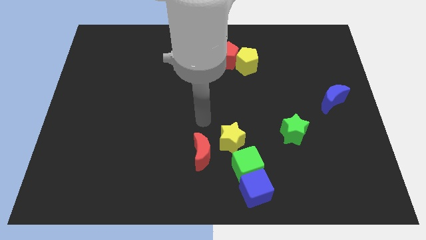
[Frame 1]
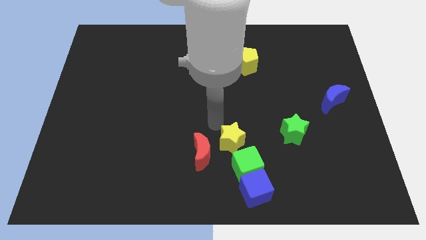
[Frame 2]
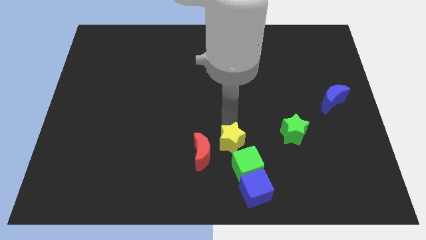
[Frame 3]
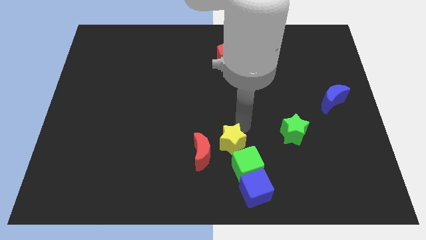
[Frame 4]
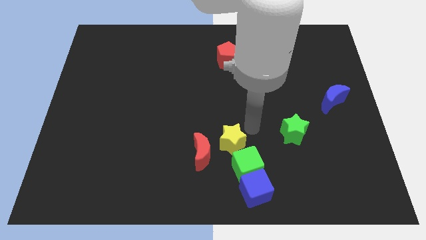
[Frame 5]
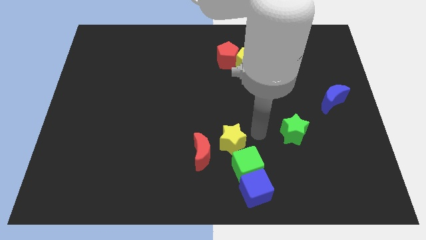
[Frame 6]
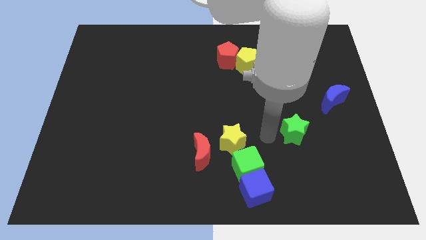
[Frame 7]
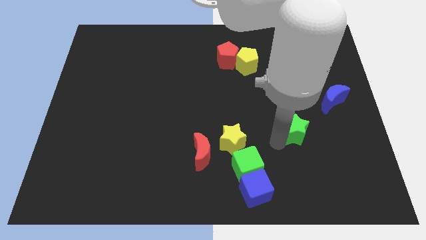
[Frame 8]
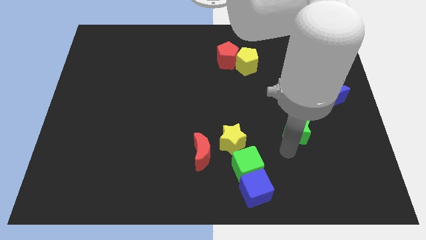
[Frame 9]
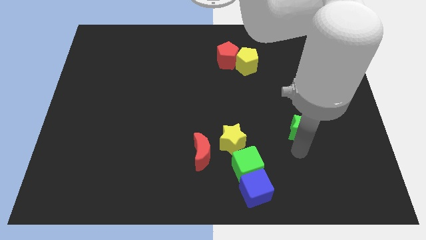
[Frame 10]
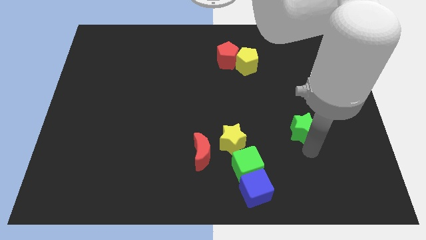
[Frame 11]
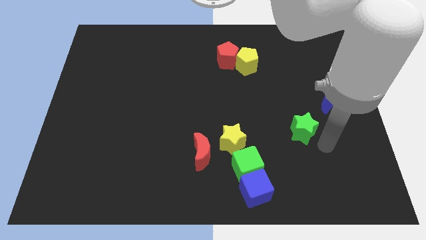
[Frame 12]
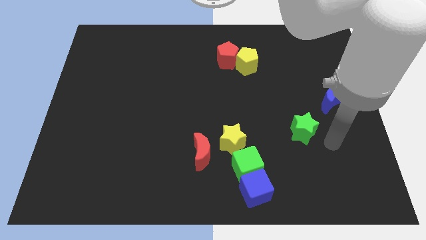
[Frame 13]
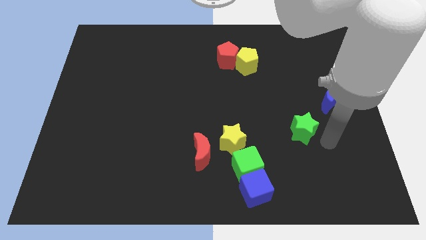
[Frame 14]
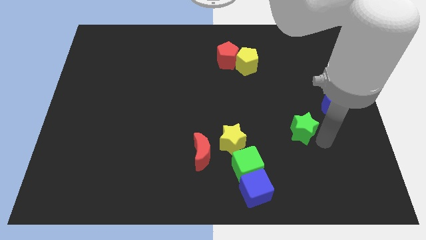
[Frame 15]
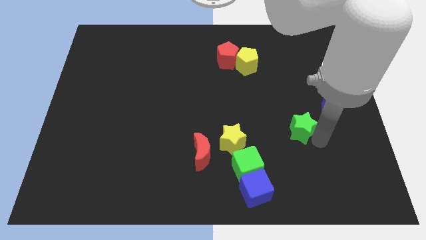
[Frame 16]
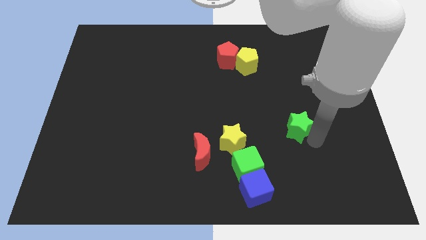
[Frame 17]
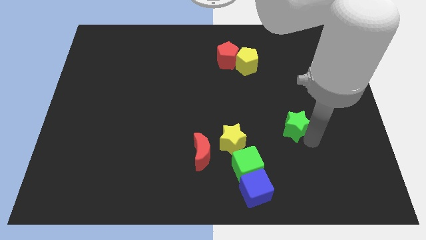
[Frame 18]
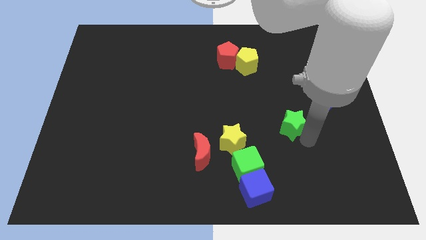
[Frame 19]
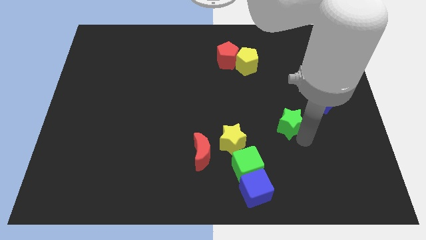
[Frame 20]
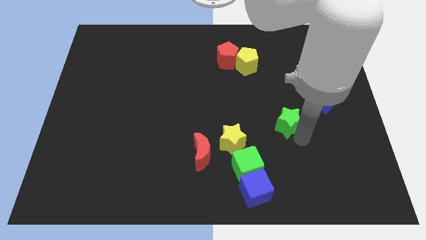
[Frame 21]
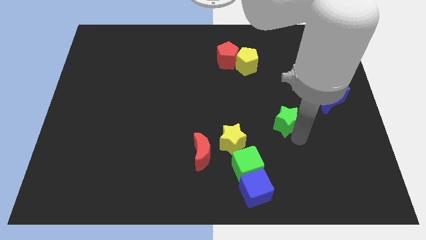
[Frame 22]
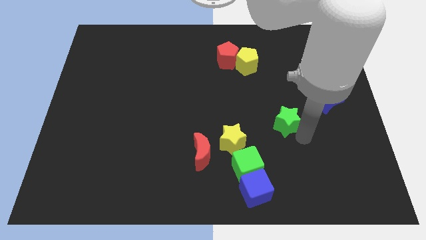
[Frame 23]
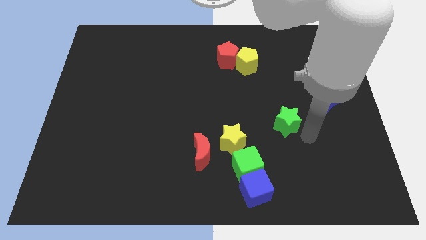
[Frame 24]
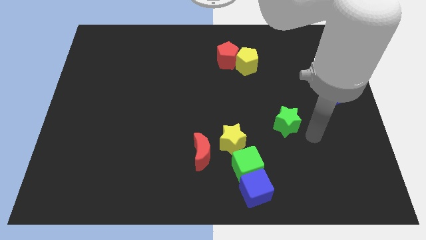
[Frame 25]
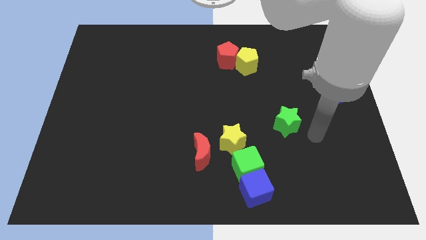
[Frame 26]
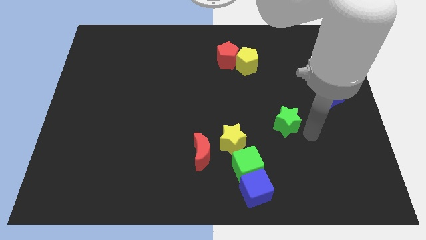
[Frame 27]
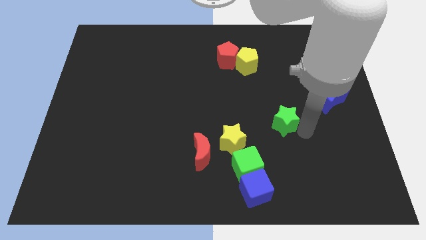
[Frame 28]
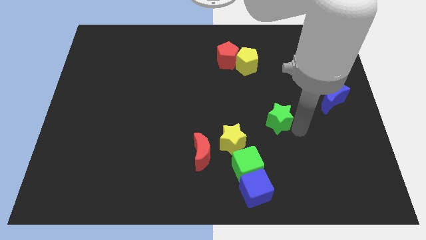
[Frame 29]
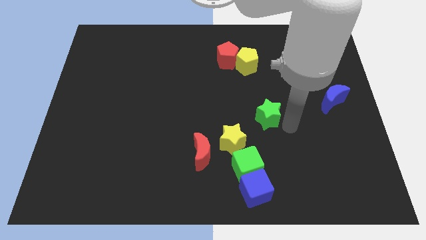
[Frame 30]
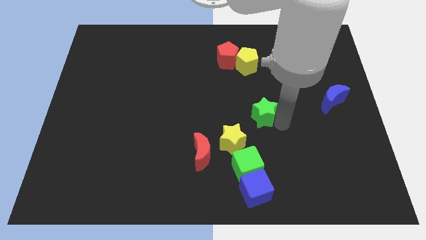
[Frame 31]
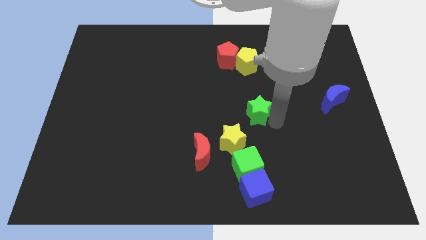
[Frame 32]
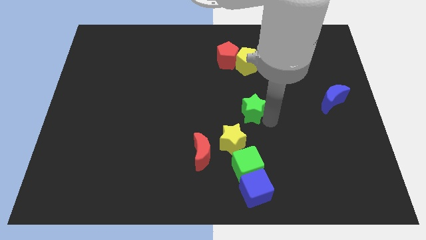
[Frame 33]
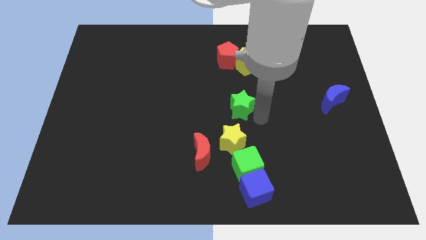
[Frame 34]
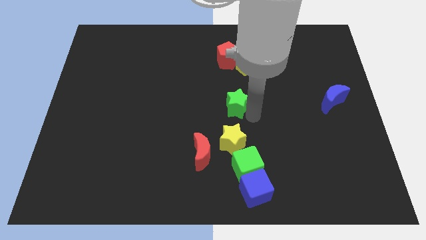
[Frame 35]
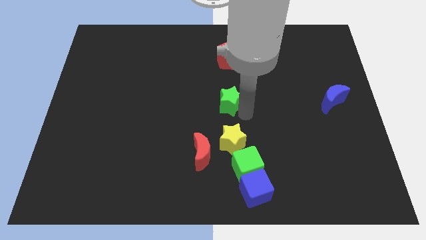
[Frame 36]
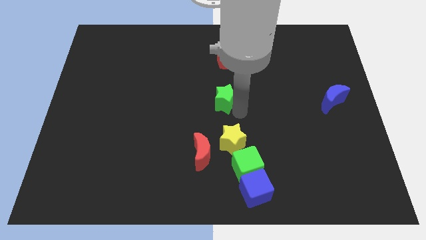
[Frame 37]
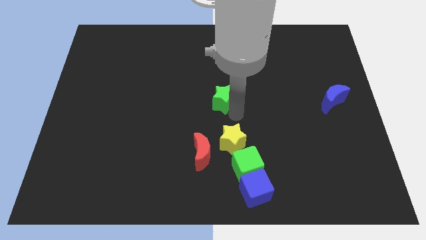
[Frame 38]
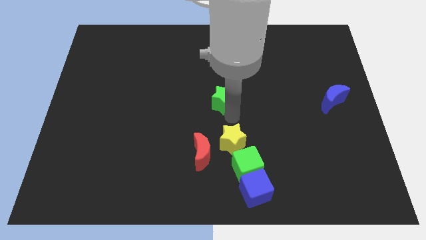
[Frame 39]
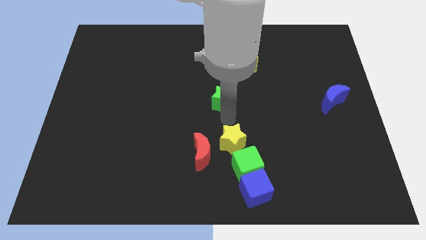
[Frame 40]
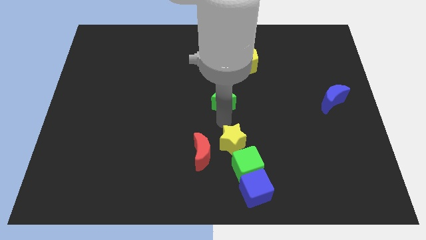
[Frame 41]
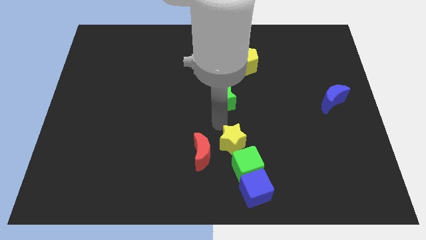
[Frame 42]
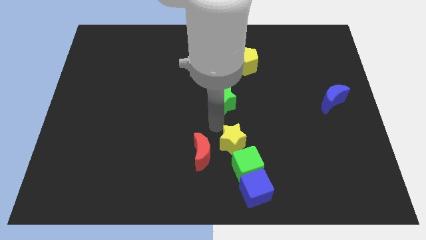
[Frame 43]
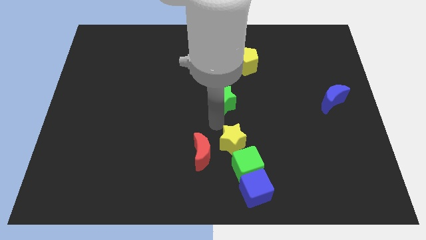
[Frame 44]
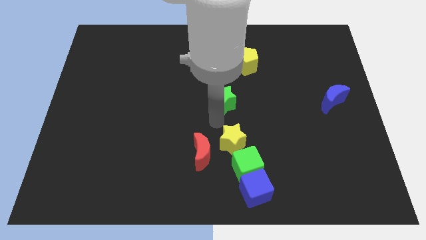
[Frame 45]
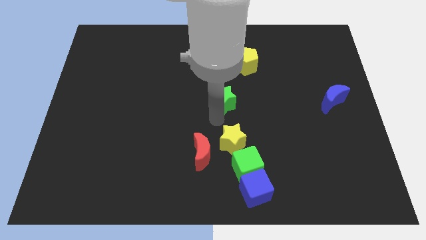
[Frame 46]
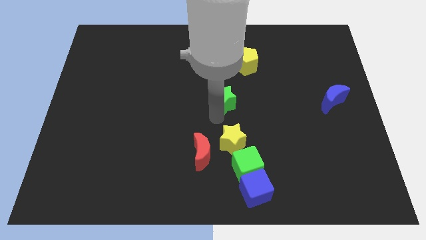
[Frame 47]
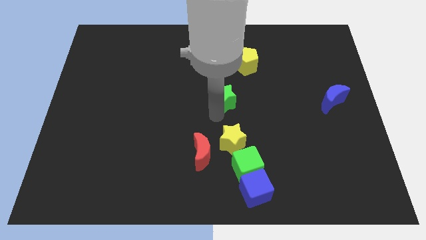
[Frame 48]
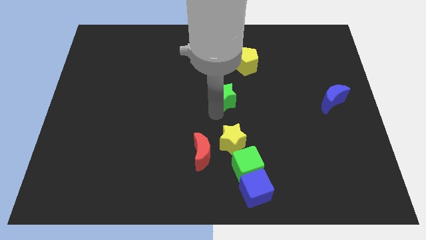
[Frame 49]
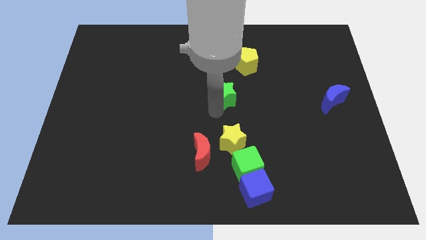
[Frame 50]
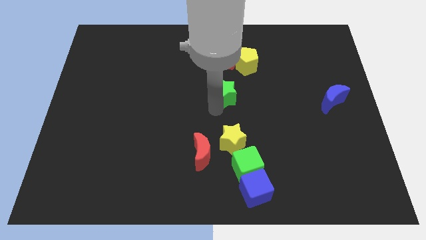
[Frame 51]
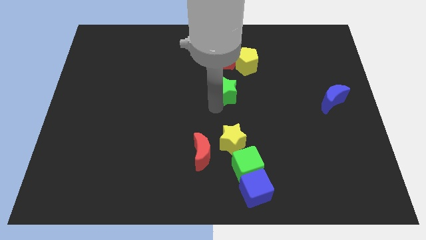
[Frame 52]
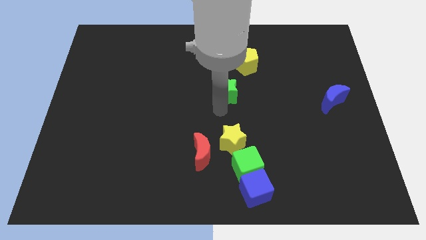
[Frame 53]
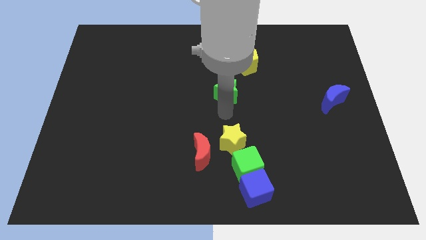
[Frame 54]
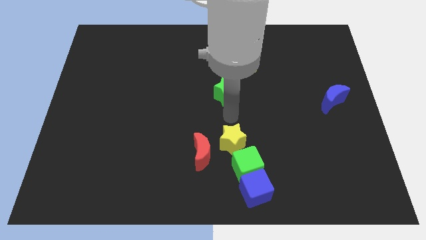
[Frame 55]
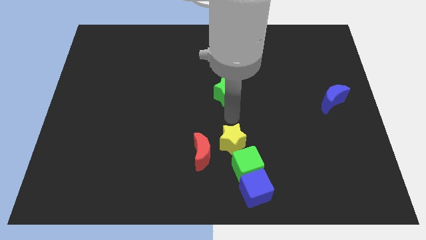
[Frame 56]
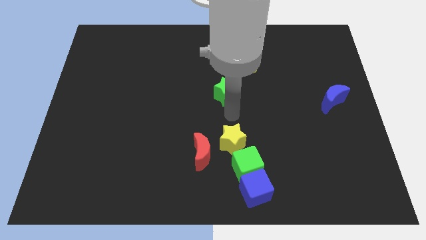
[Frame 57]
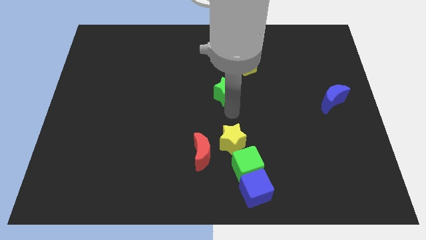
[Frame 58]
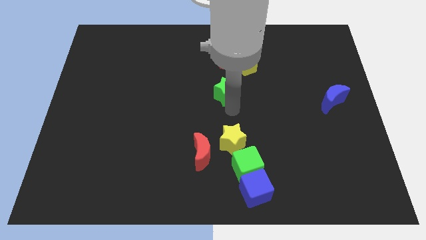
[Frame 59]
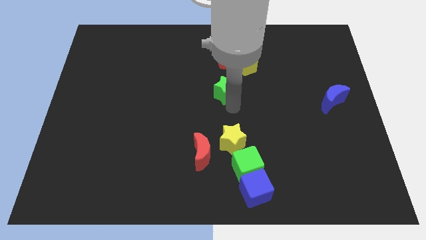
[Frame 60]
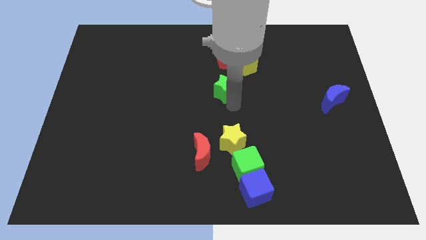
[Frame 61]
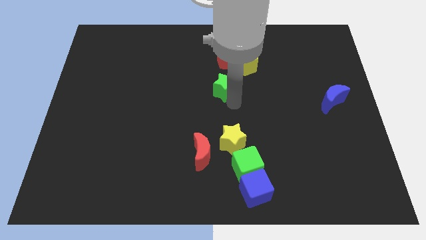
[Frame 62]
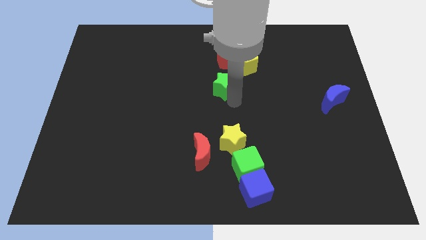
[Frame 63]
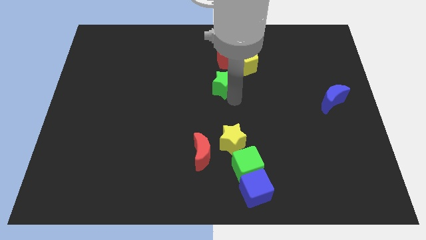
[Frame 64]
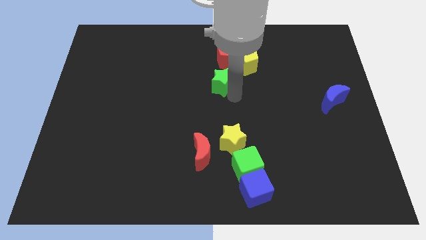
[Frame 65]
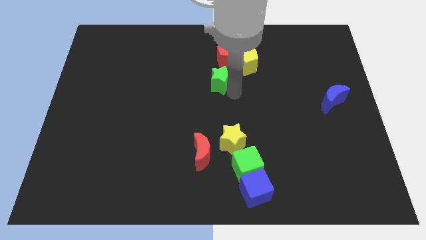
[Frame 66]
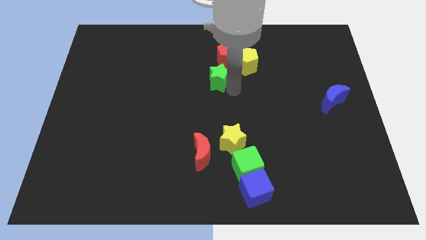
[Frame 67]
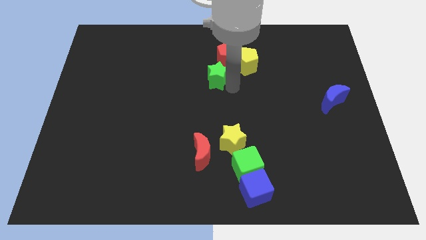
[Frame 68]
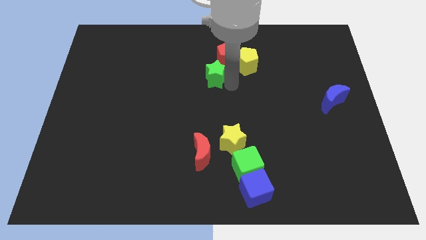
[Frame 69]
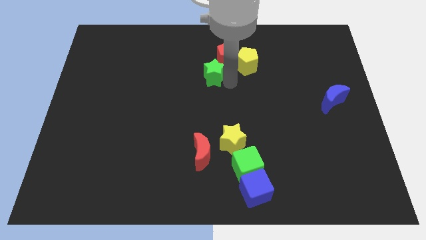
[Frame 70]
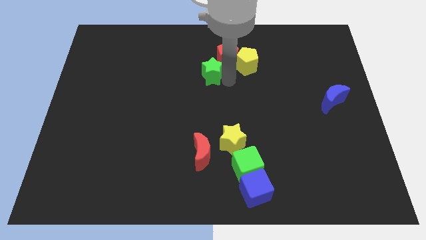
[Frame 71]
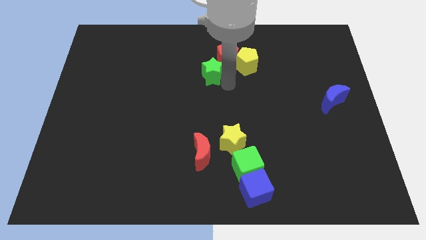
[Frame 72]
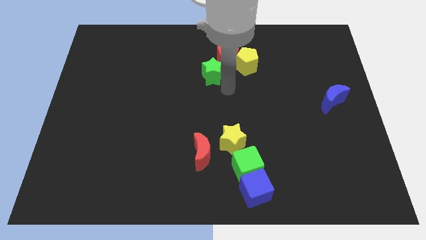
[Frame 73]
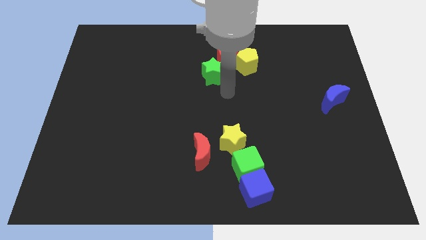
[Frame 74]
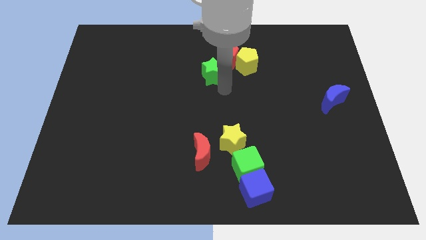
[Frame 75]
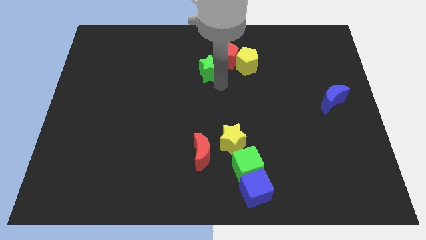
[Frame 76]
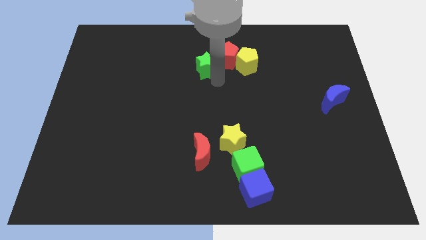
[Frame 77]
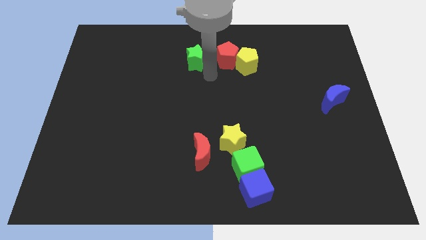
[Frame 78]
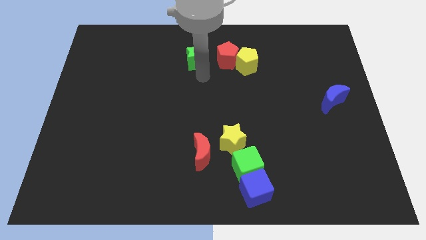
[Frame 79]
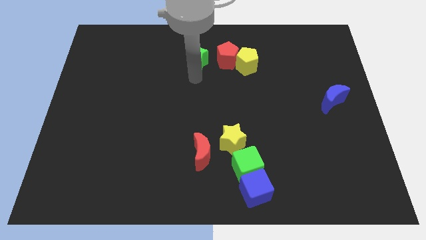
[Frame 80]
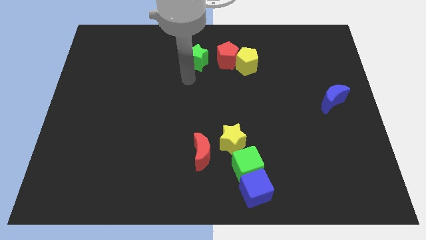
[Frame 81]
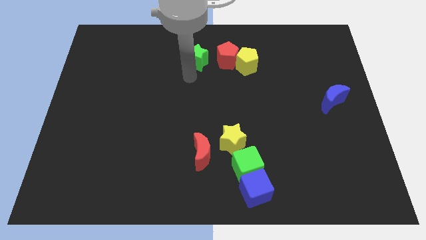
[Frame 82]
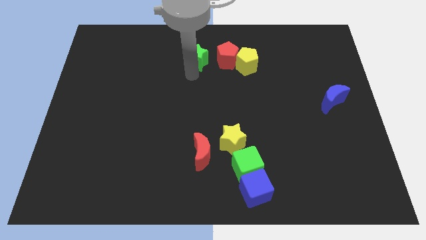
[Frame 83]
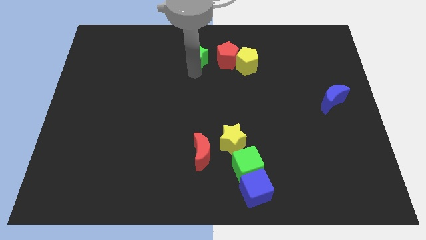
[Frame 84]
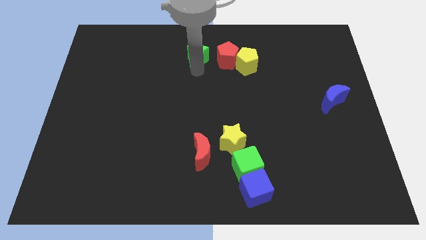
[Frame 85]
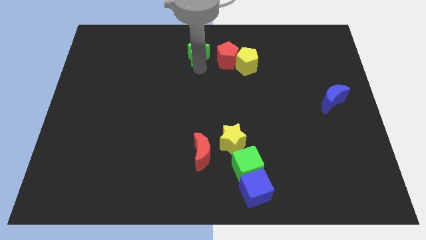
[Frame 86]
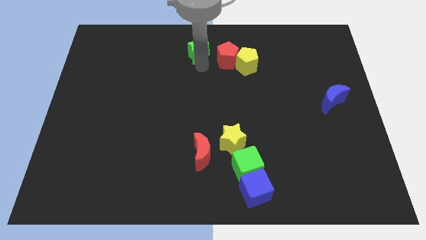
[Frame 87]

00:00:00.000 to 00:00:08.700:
slide the green star to the towards your base
